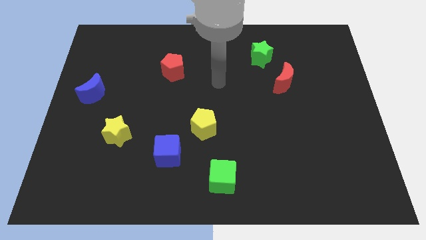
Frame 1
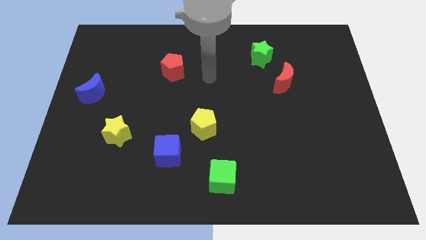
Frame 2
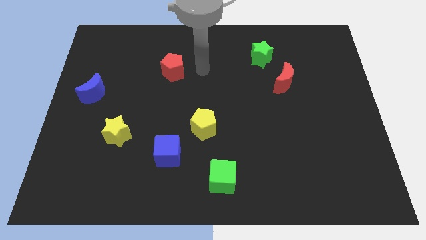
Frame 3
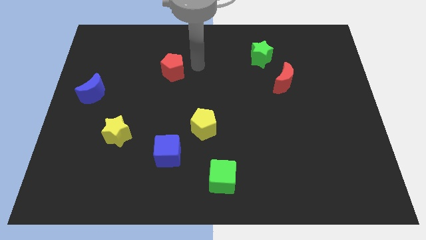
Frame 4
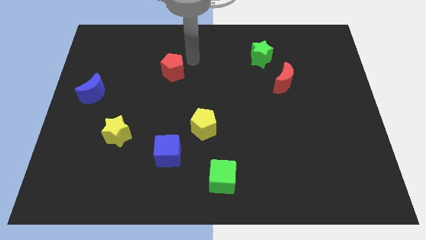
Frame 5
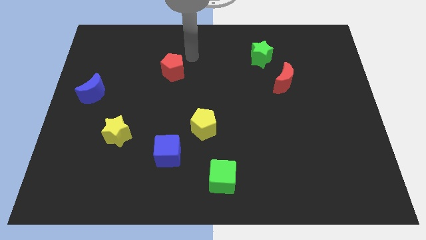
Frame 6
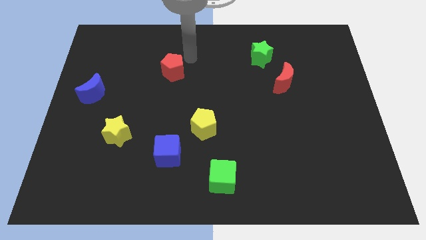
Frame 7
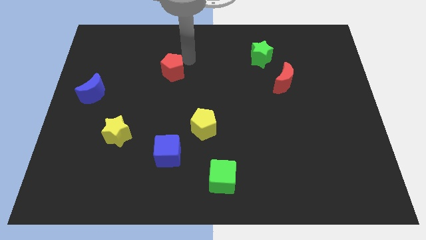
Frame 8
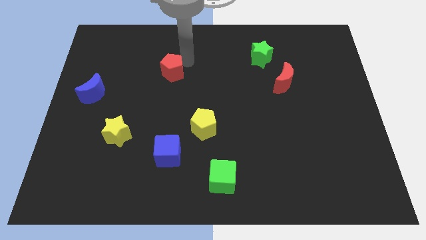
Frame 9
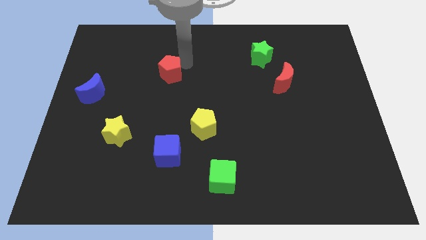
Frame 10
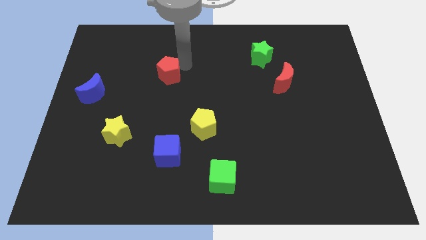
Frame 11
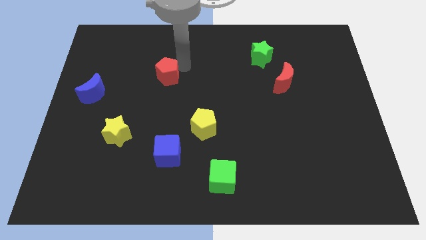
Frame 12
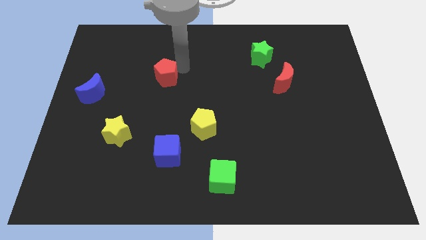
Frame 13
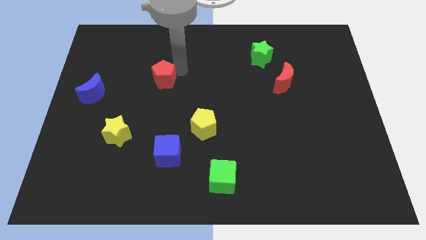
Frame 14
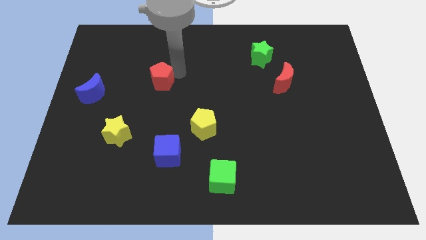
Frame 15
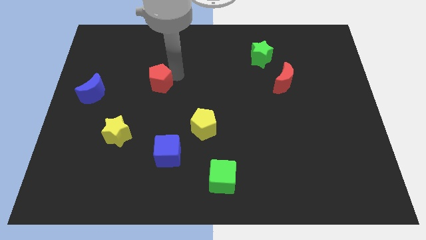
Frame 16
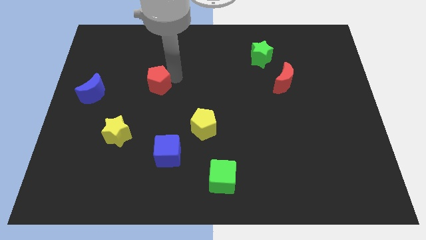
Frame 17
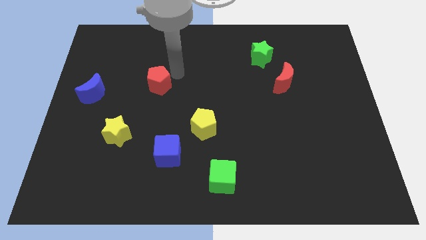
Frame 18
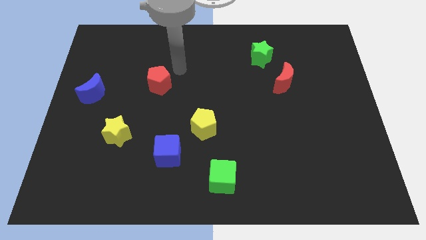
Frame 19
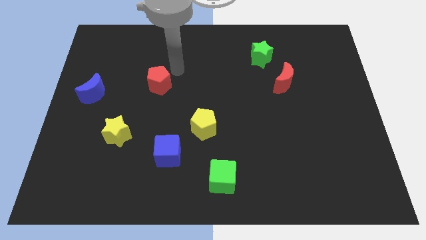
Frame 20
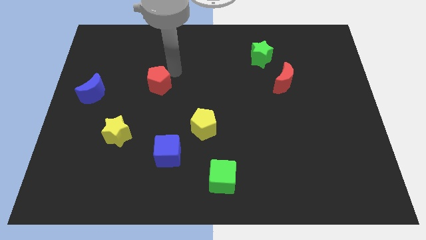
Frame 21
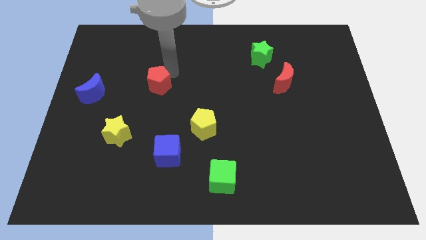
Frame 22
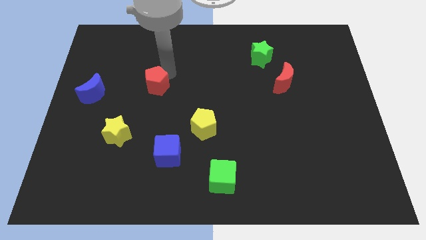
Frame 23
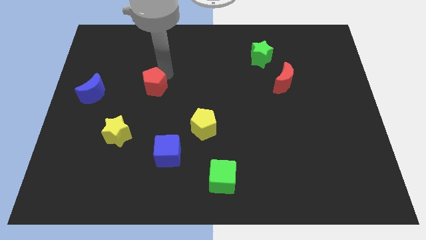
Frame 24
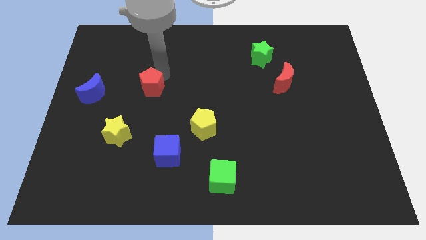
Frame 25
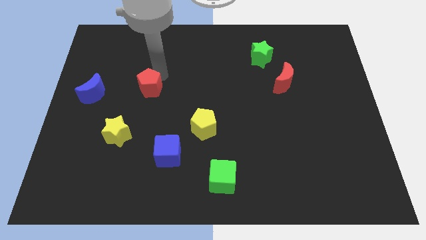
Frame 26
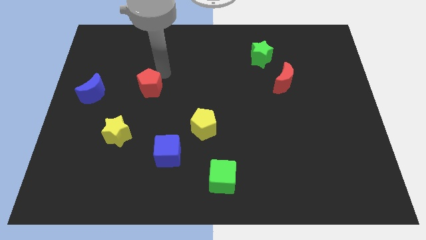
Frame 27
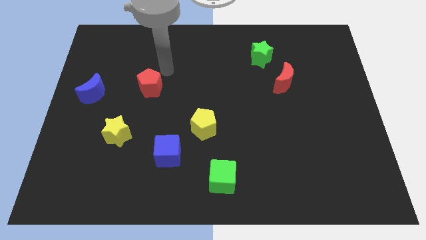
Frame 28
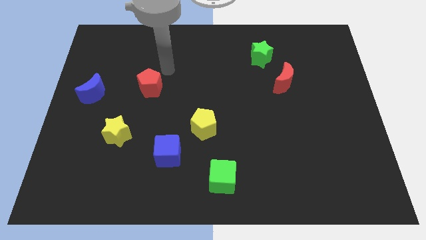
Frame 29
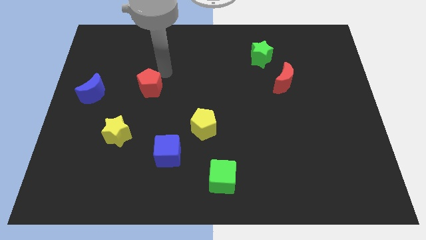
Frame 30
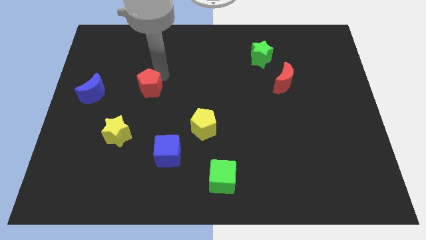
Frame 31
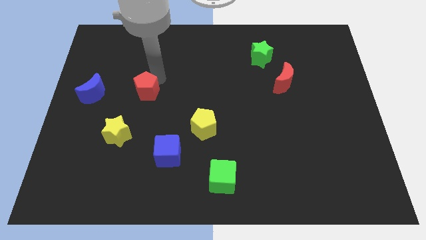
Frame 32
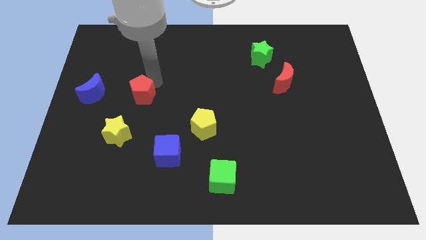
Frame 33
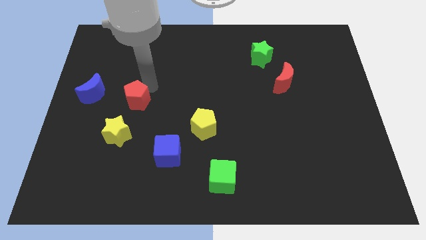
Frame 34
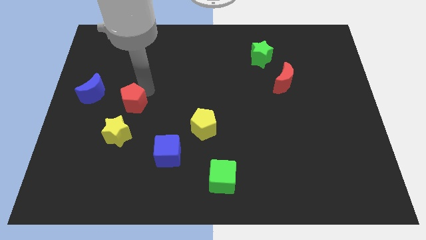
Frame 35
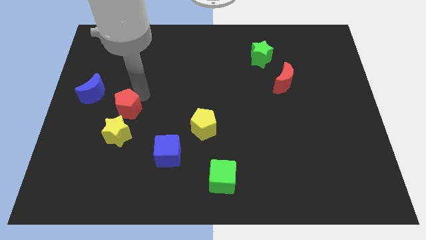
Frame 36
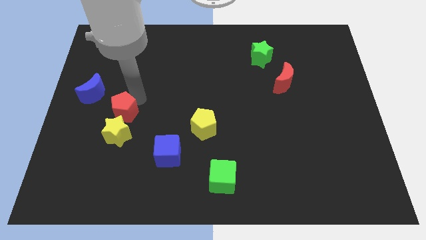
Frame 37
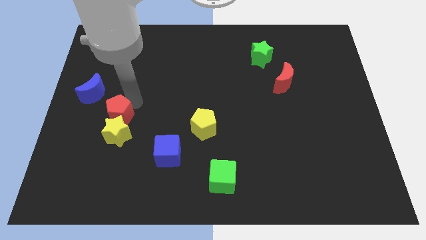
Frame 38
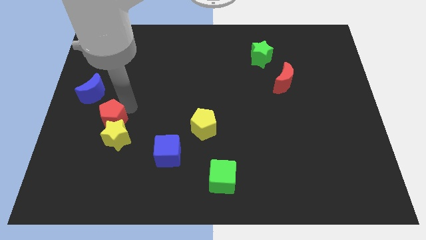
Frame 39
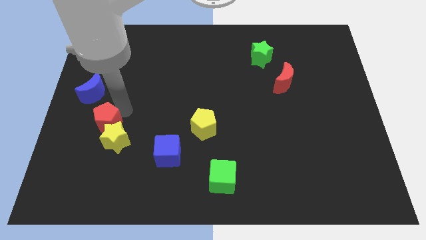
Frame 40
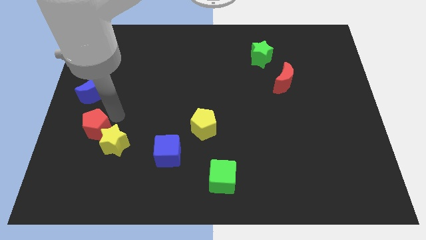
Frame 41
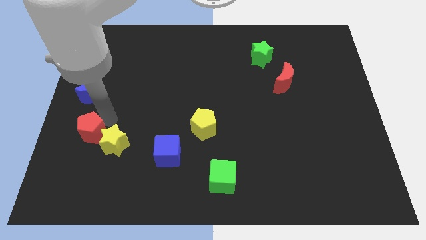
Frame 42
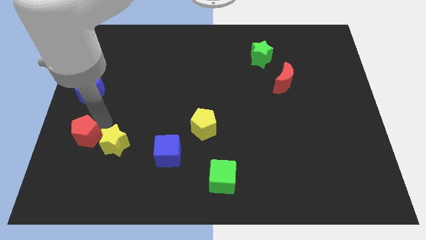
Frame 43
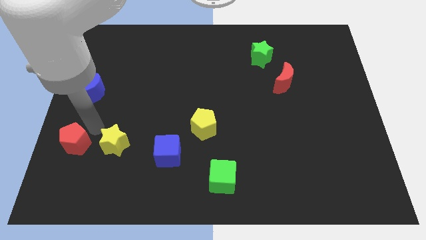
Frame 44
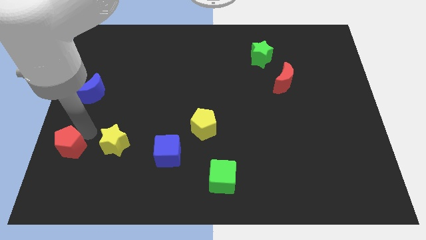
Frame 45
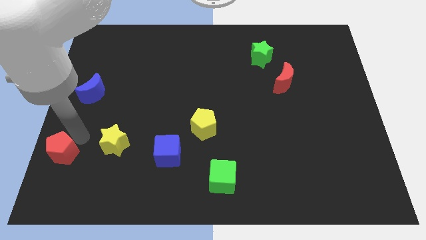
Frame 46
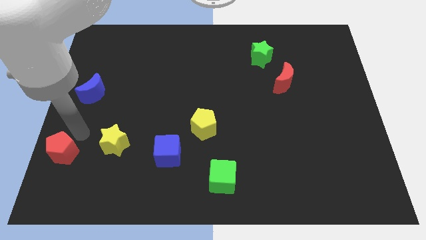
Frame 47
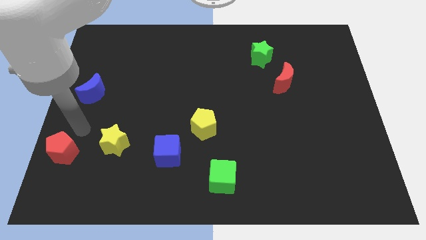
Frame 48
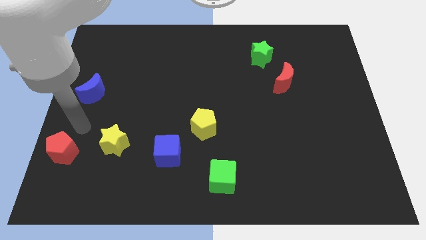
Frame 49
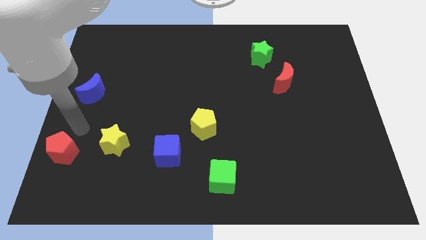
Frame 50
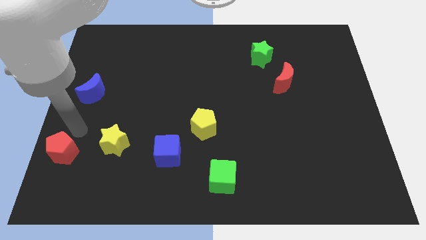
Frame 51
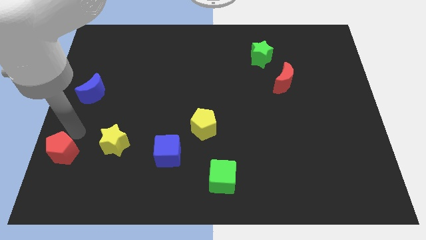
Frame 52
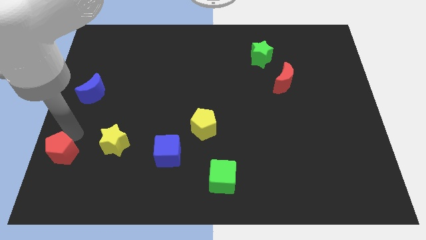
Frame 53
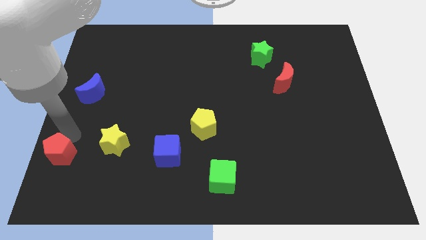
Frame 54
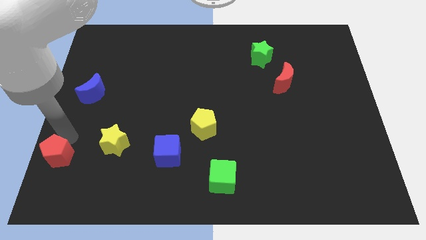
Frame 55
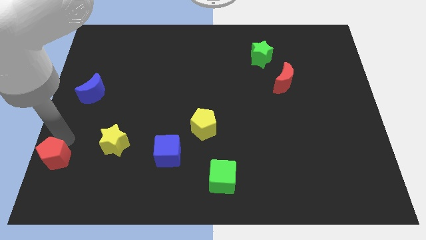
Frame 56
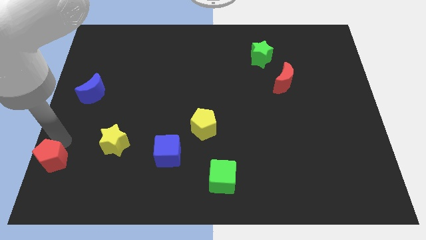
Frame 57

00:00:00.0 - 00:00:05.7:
push the red pentagon to the bottom left of the board

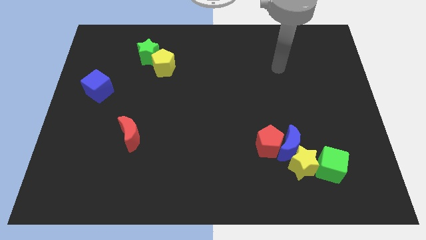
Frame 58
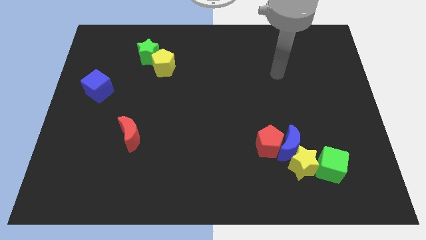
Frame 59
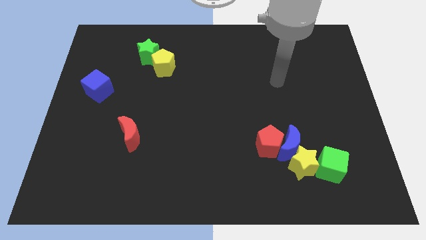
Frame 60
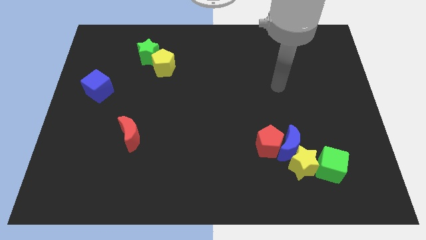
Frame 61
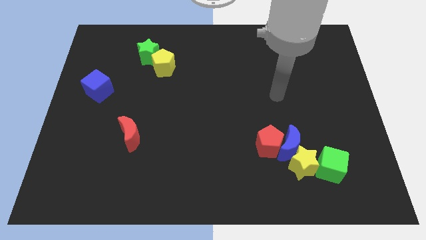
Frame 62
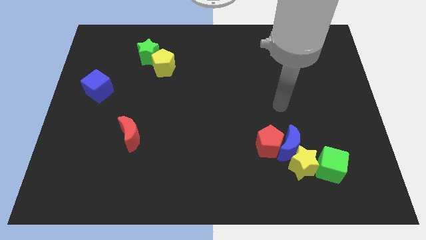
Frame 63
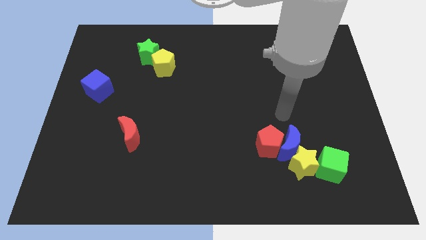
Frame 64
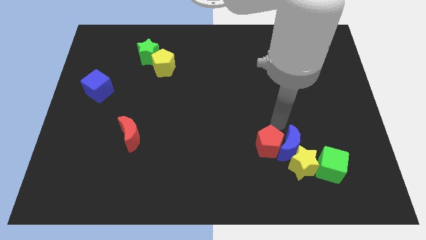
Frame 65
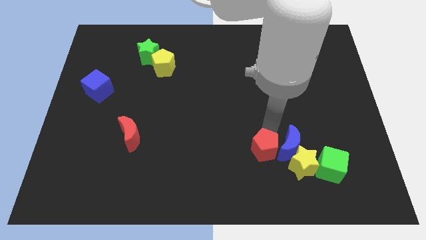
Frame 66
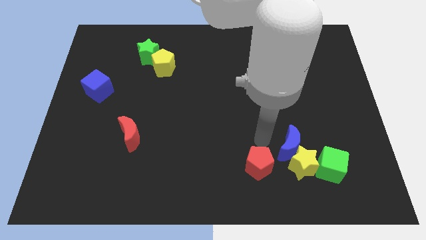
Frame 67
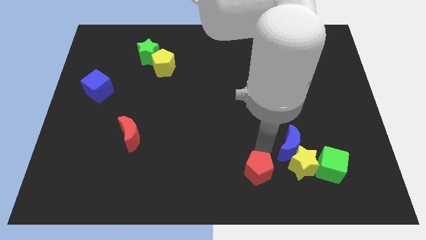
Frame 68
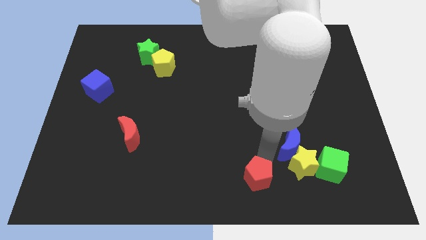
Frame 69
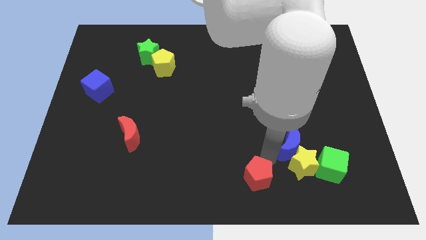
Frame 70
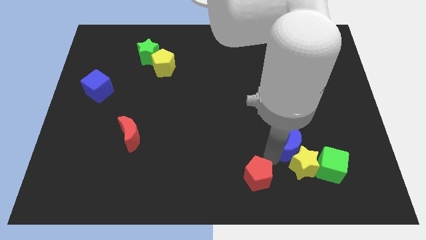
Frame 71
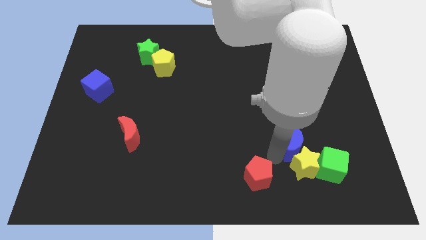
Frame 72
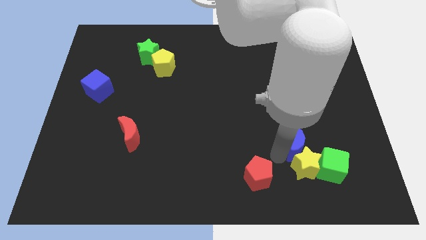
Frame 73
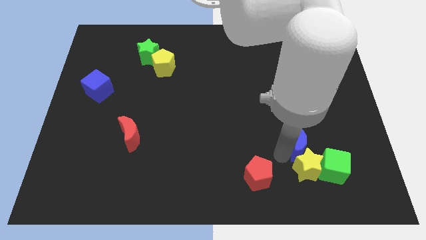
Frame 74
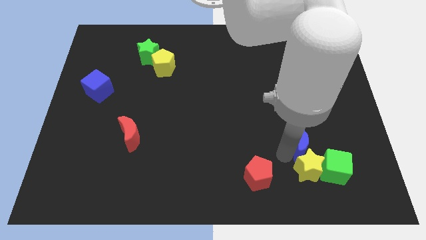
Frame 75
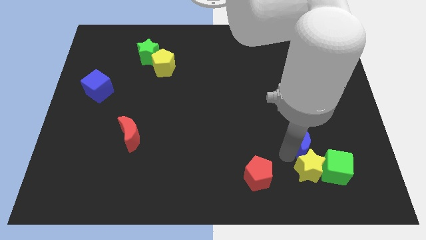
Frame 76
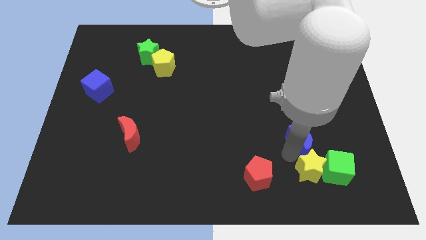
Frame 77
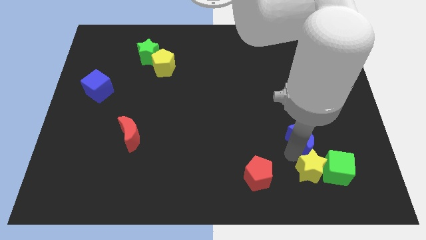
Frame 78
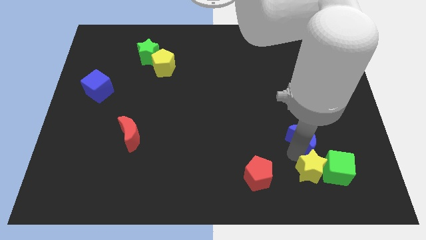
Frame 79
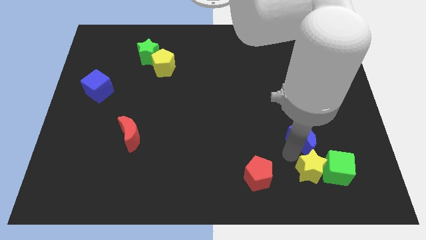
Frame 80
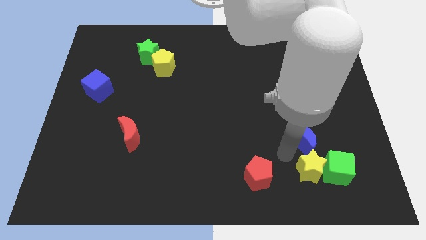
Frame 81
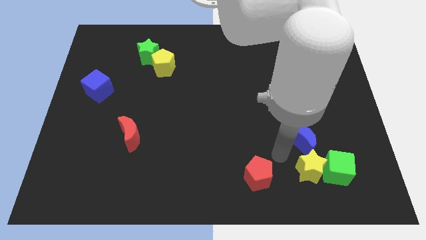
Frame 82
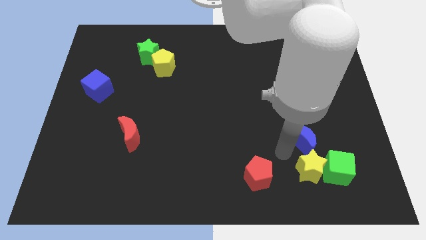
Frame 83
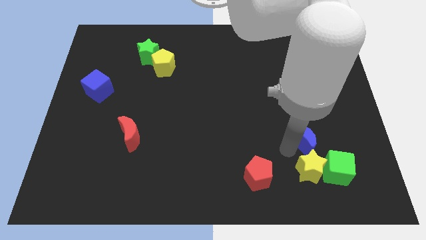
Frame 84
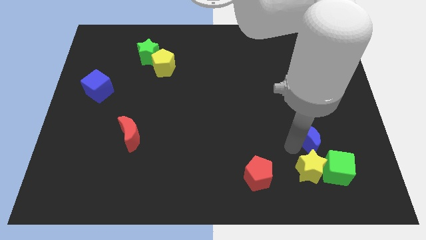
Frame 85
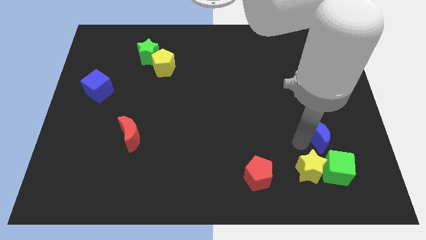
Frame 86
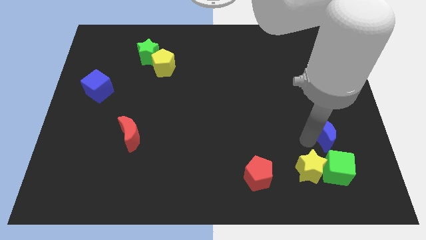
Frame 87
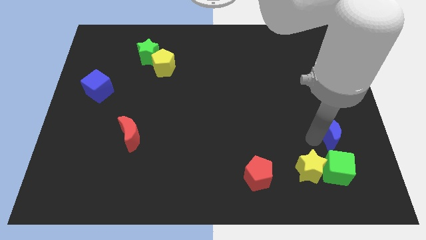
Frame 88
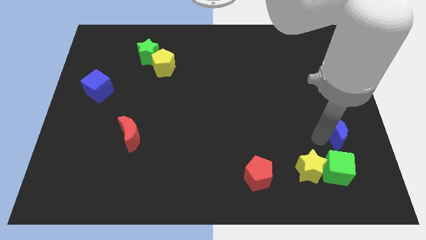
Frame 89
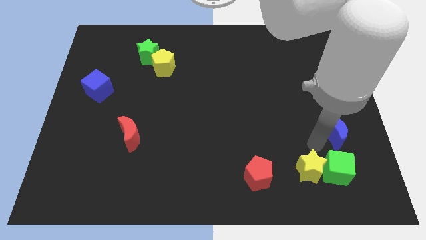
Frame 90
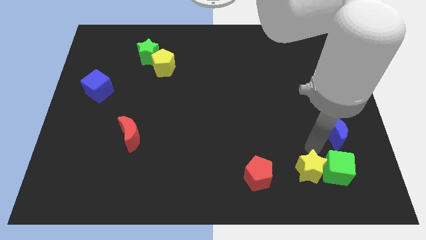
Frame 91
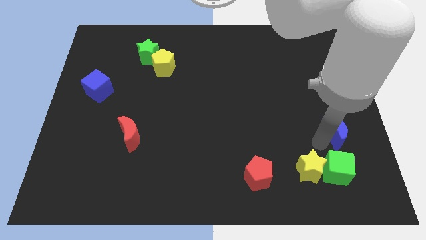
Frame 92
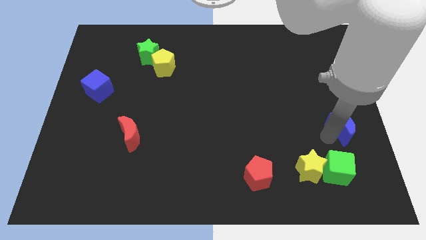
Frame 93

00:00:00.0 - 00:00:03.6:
put the blue moon to the right side
